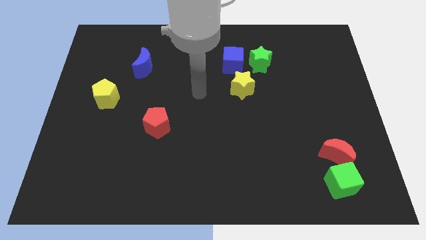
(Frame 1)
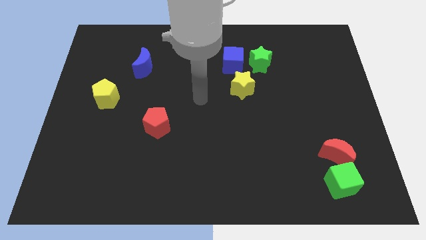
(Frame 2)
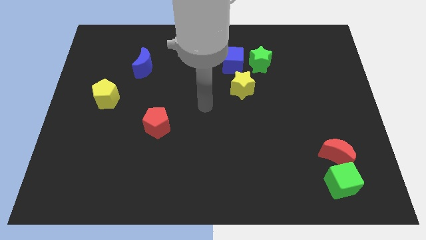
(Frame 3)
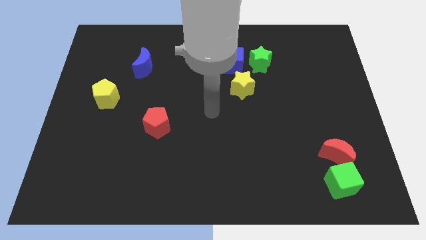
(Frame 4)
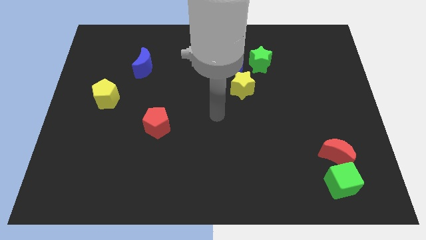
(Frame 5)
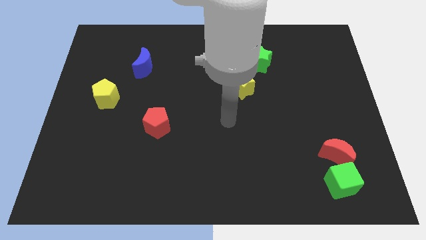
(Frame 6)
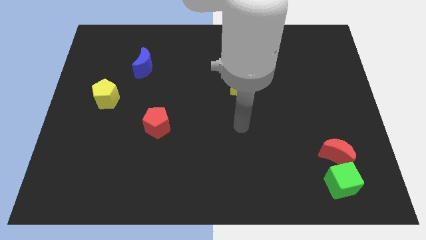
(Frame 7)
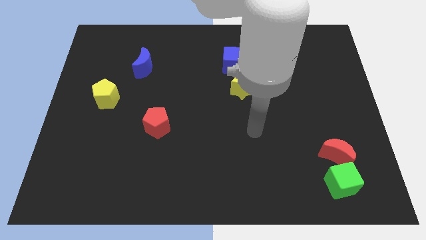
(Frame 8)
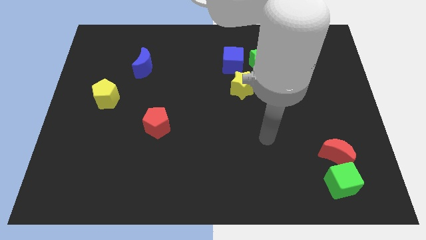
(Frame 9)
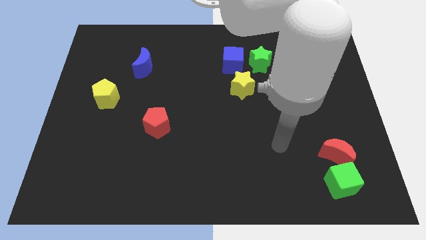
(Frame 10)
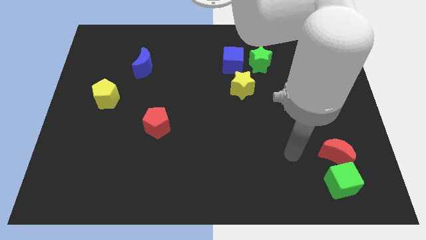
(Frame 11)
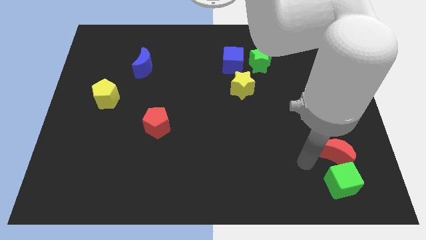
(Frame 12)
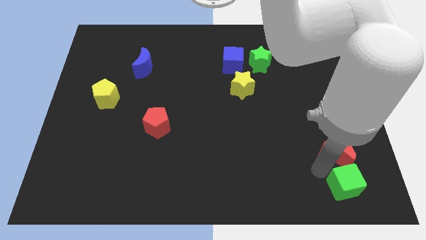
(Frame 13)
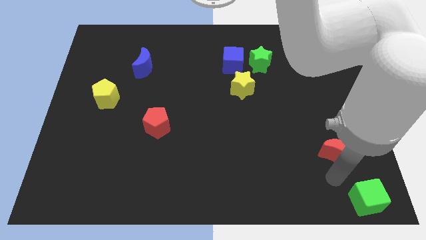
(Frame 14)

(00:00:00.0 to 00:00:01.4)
separate the red moon from the green cube

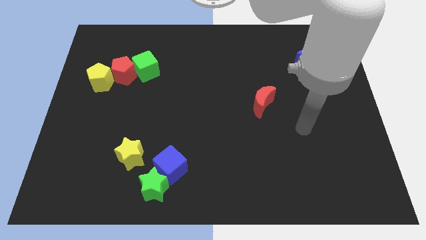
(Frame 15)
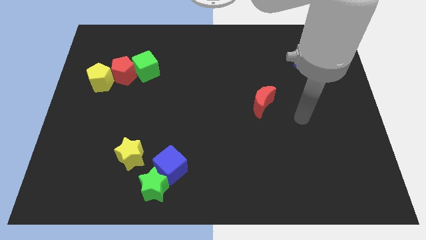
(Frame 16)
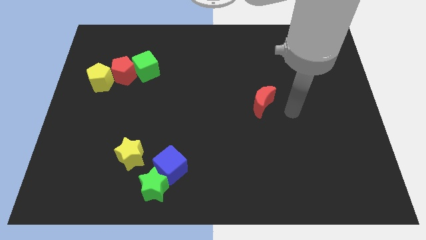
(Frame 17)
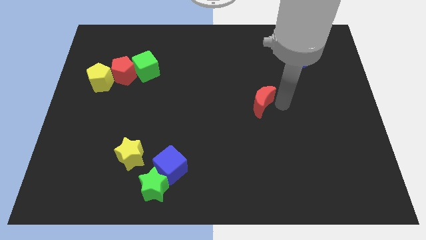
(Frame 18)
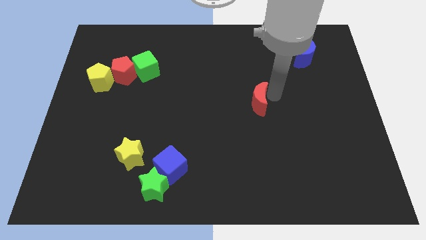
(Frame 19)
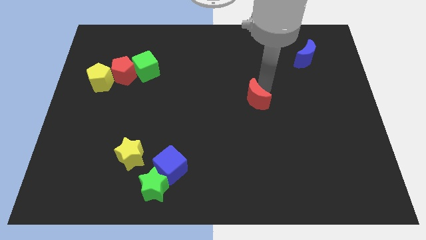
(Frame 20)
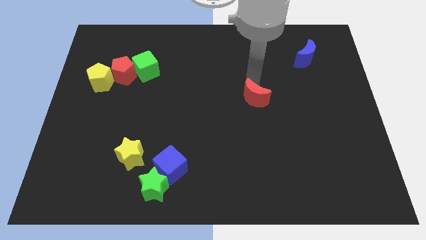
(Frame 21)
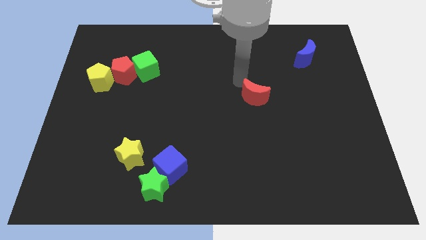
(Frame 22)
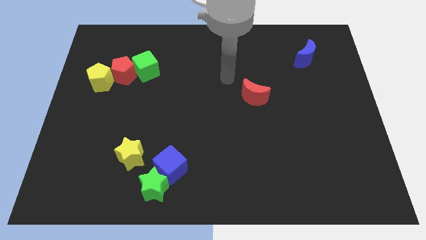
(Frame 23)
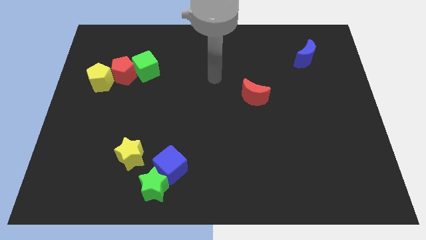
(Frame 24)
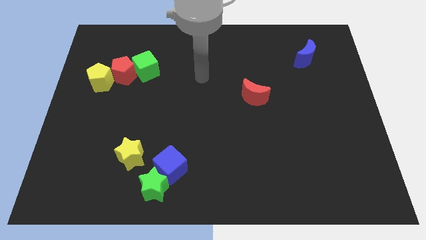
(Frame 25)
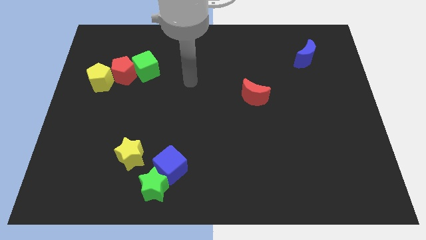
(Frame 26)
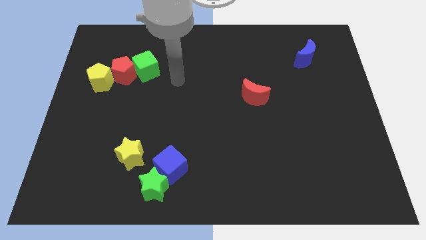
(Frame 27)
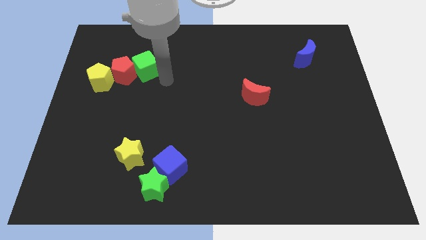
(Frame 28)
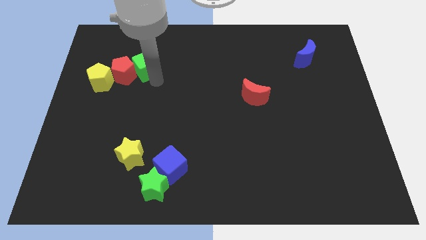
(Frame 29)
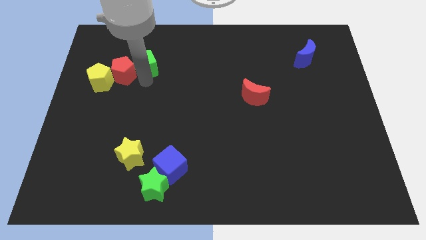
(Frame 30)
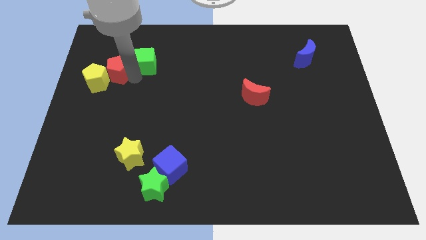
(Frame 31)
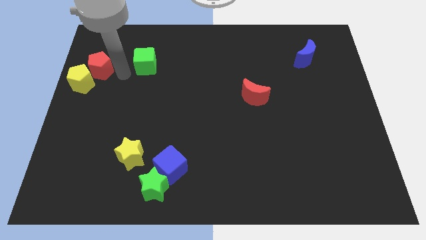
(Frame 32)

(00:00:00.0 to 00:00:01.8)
move the green cube away from the red pentagon

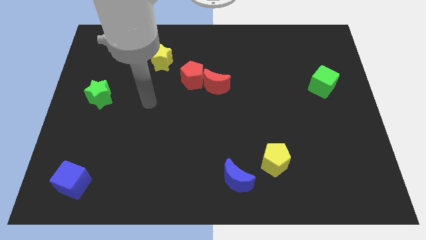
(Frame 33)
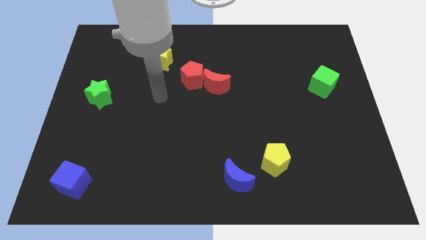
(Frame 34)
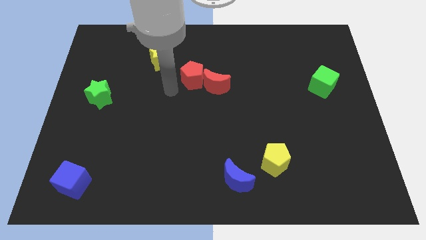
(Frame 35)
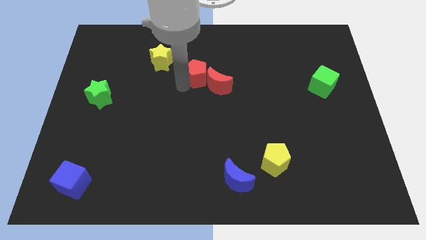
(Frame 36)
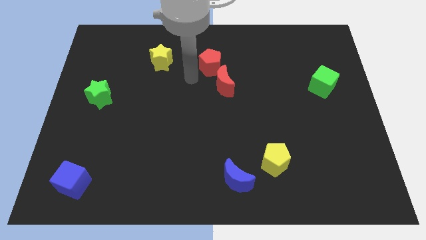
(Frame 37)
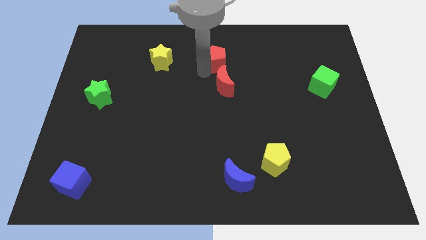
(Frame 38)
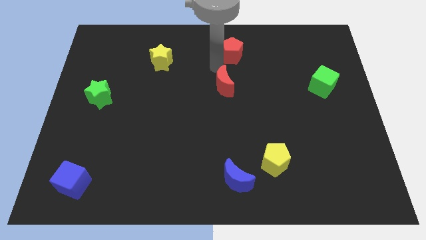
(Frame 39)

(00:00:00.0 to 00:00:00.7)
separate the red moon from the red pentagon

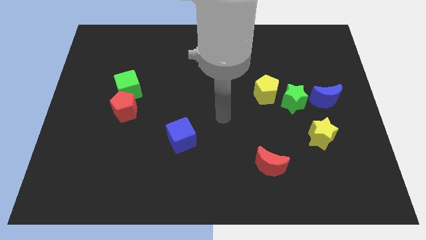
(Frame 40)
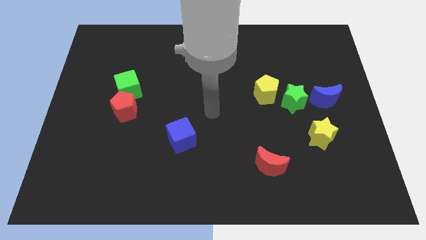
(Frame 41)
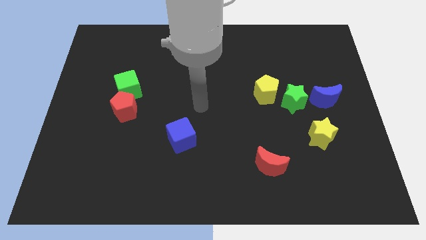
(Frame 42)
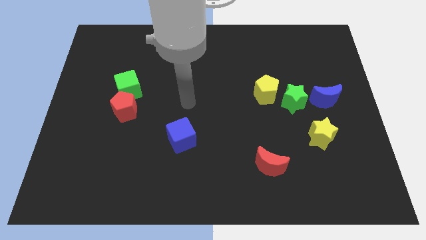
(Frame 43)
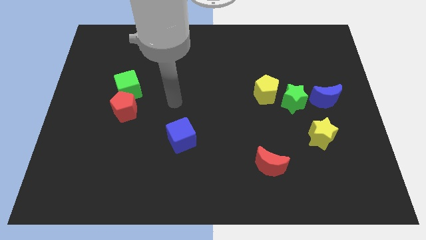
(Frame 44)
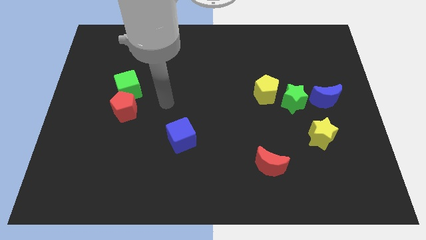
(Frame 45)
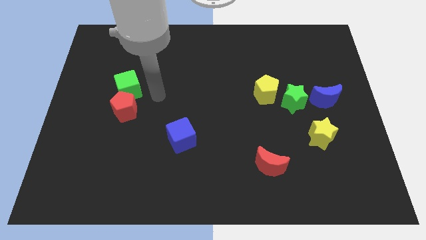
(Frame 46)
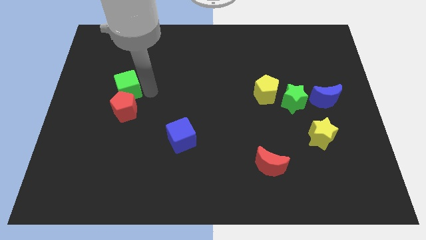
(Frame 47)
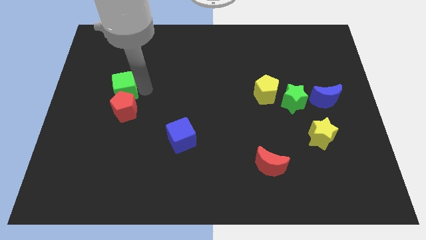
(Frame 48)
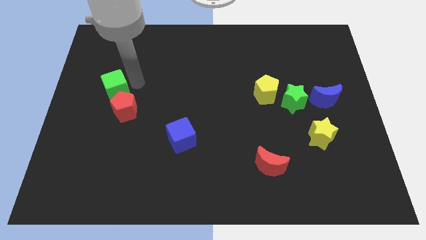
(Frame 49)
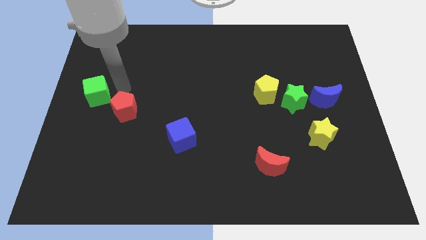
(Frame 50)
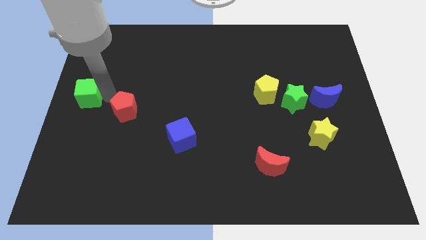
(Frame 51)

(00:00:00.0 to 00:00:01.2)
move the red pentagon away from the green cube

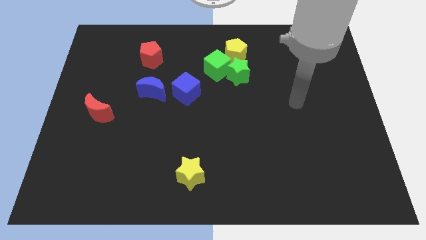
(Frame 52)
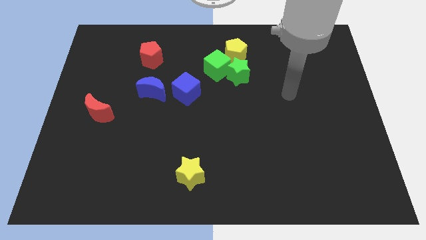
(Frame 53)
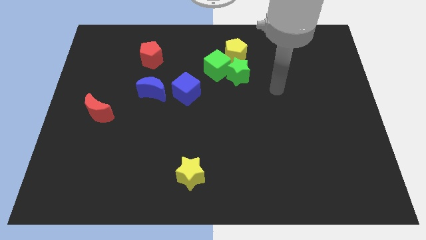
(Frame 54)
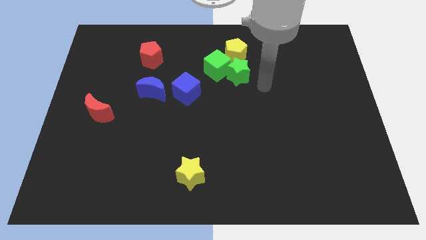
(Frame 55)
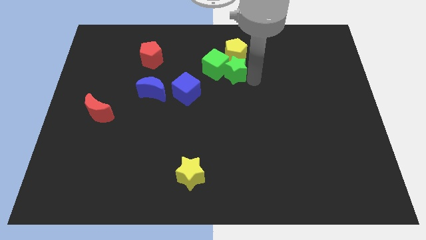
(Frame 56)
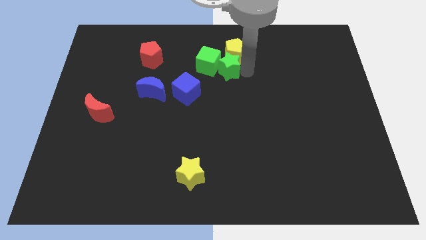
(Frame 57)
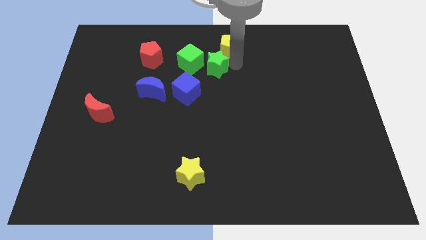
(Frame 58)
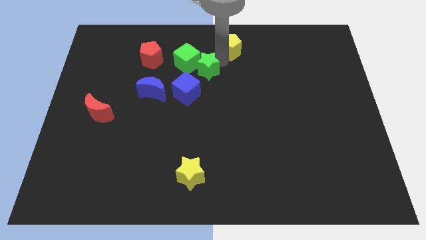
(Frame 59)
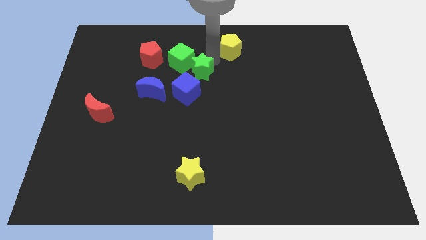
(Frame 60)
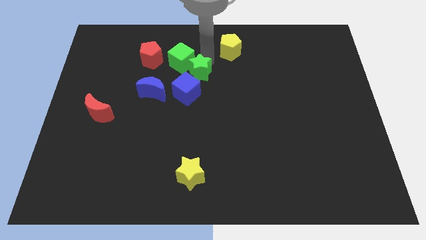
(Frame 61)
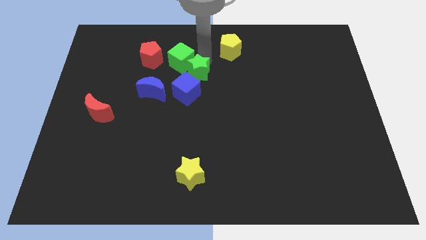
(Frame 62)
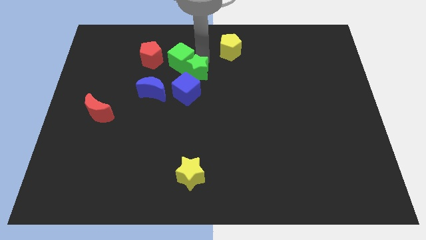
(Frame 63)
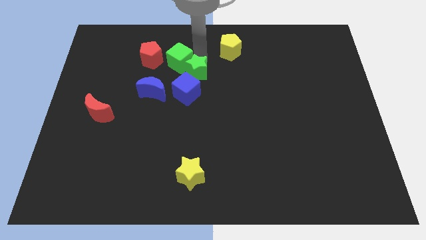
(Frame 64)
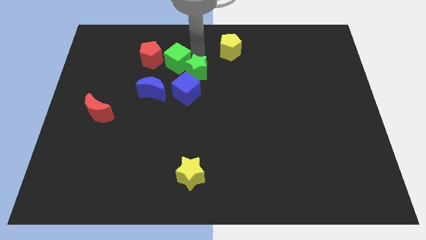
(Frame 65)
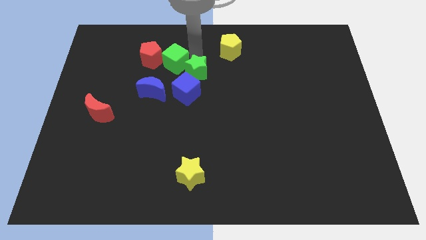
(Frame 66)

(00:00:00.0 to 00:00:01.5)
pull the green cube apart from the green star and yellow pentagon

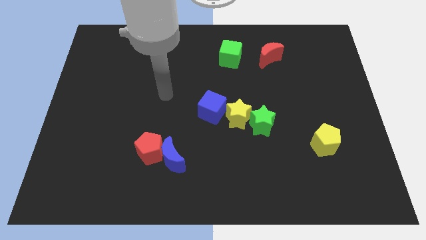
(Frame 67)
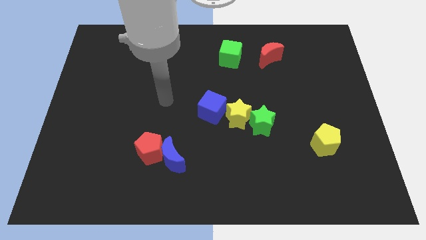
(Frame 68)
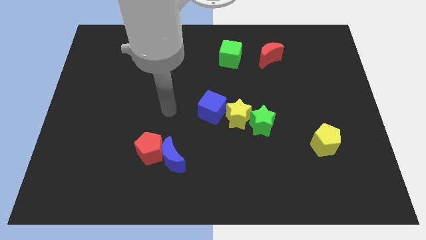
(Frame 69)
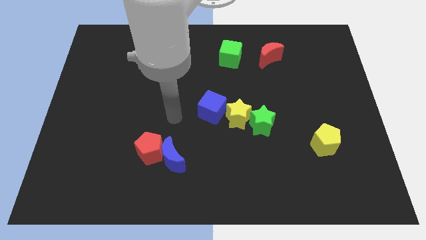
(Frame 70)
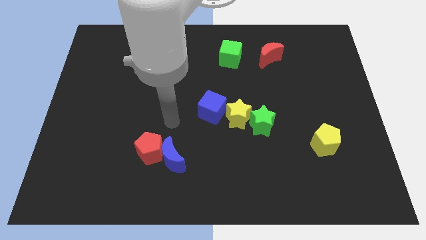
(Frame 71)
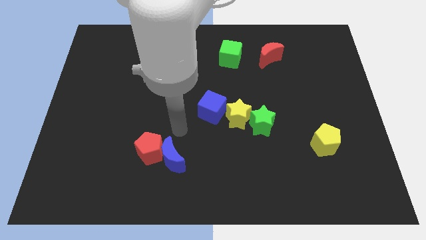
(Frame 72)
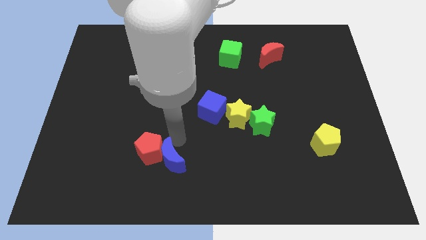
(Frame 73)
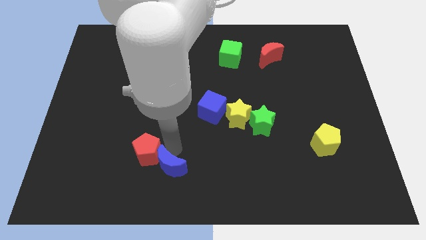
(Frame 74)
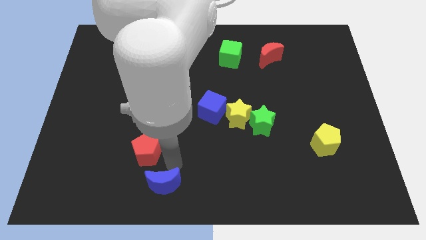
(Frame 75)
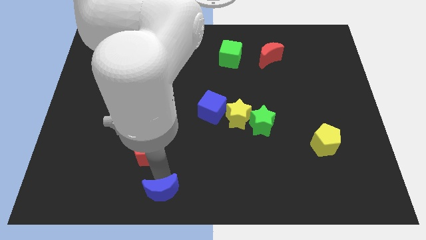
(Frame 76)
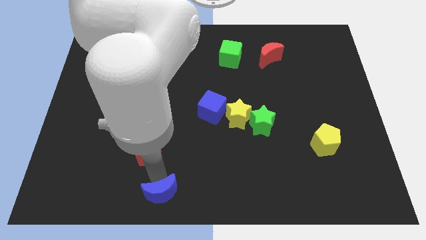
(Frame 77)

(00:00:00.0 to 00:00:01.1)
pull the red pentagon apart from the blue moon

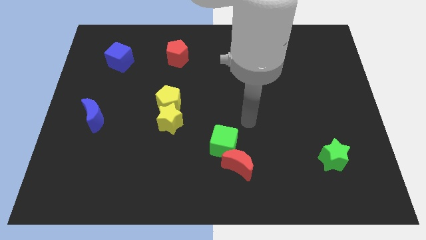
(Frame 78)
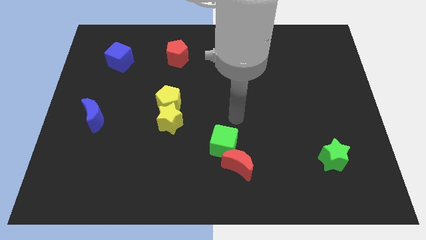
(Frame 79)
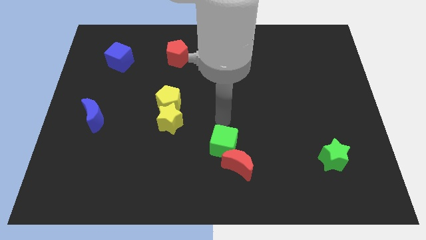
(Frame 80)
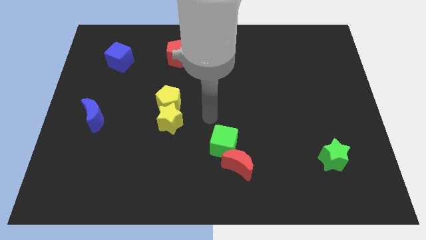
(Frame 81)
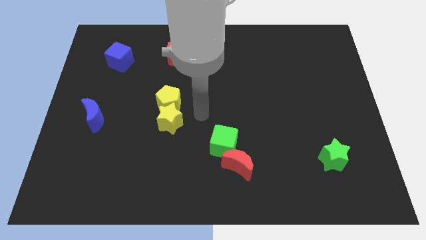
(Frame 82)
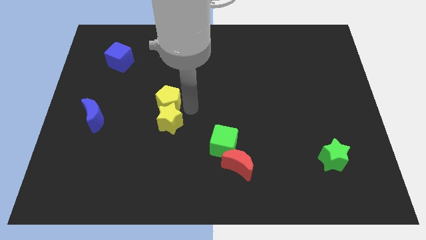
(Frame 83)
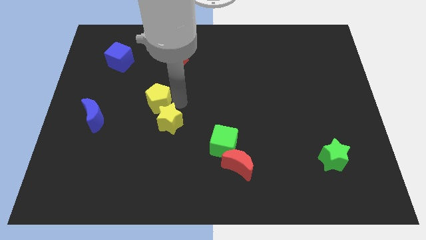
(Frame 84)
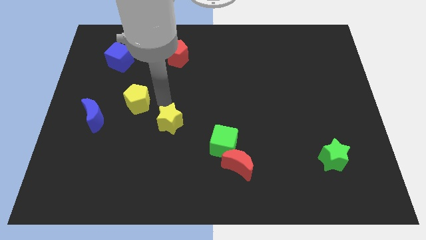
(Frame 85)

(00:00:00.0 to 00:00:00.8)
pull the yellow star apart from the yellow pentagon

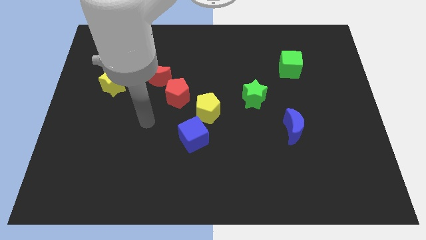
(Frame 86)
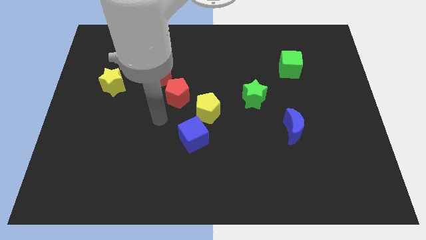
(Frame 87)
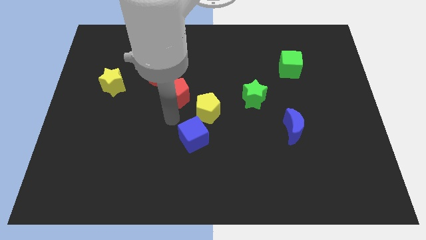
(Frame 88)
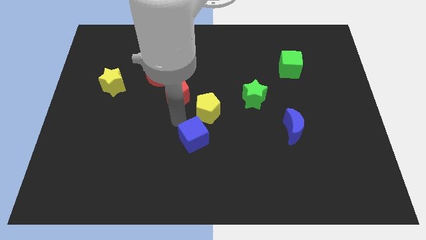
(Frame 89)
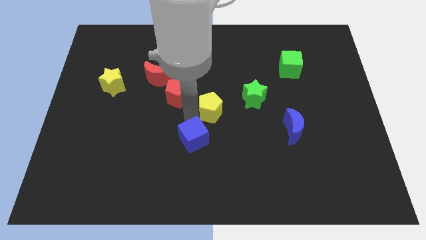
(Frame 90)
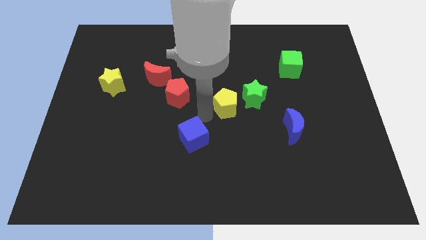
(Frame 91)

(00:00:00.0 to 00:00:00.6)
separate the blue cube from the yellow pentagon
